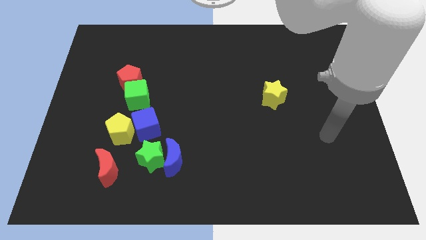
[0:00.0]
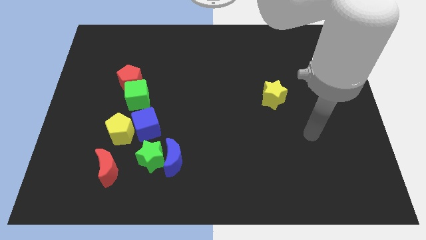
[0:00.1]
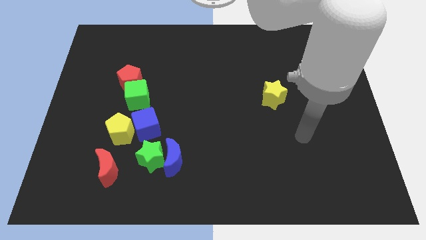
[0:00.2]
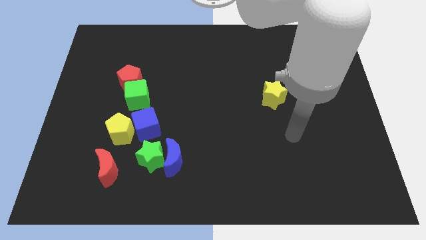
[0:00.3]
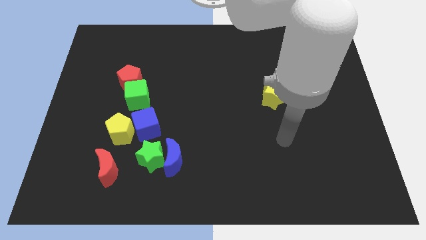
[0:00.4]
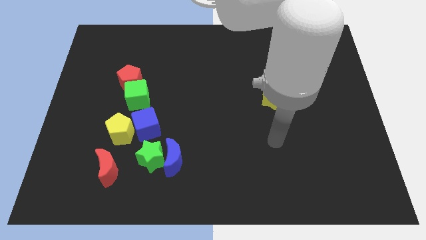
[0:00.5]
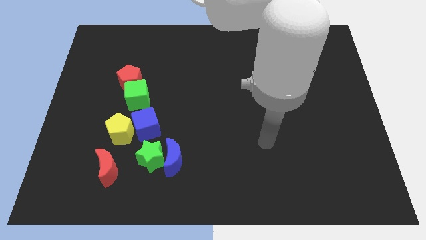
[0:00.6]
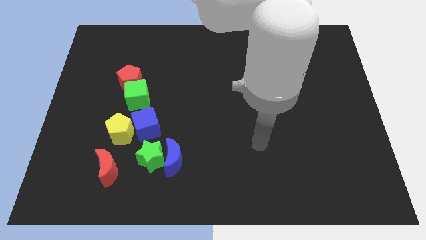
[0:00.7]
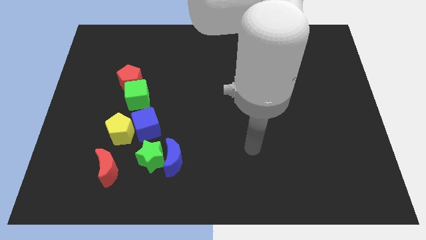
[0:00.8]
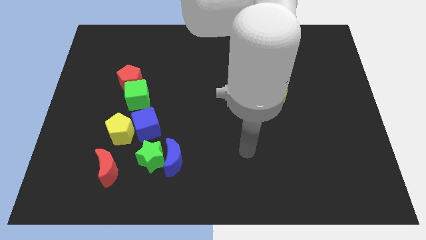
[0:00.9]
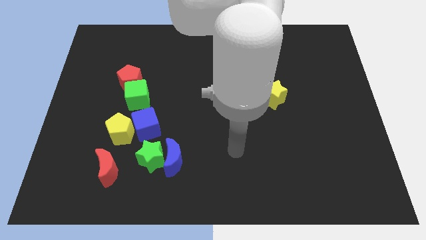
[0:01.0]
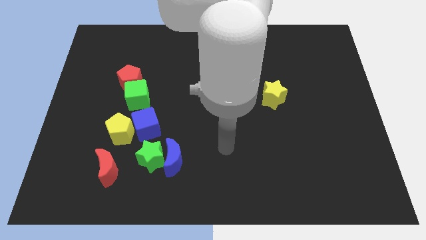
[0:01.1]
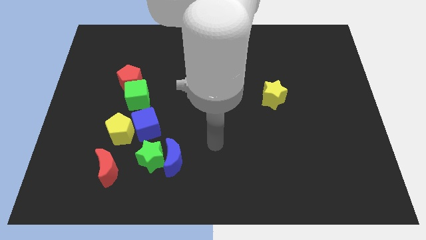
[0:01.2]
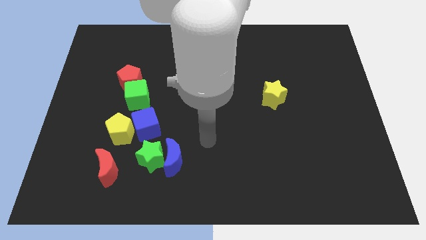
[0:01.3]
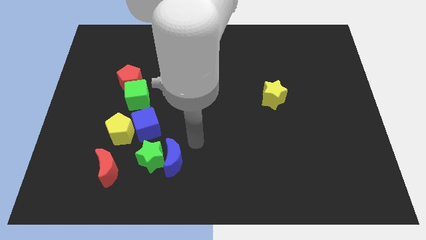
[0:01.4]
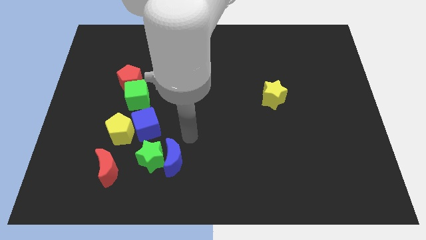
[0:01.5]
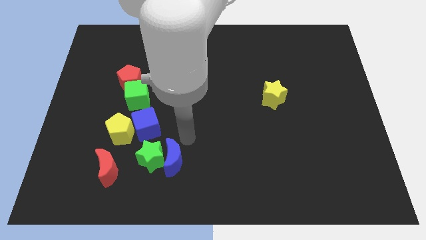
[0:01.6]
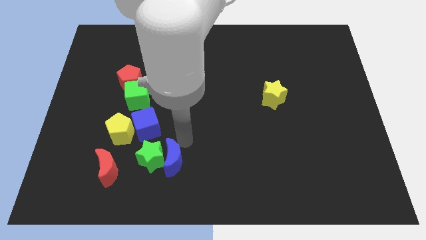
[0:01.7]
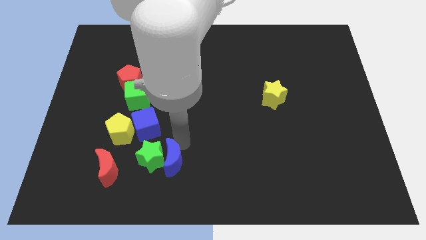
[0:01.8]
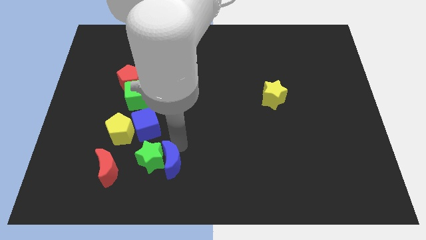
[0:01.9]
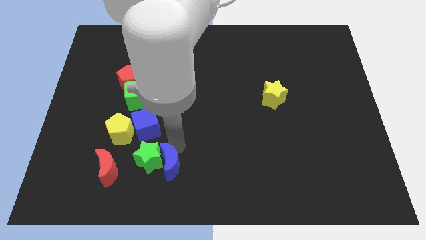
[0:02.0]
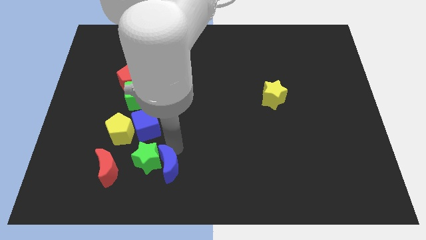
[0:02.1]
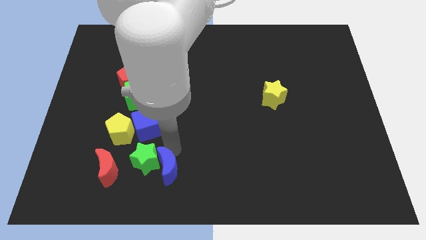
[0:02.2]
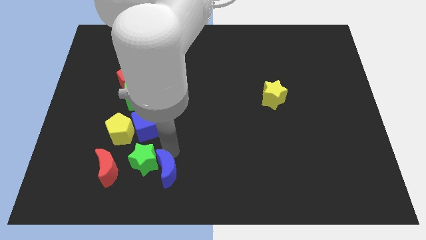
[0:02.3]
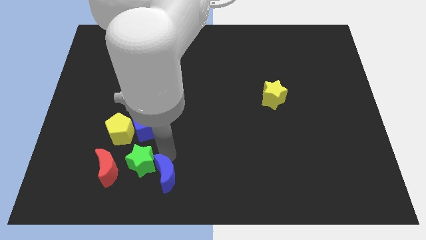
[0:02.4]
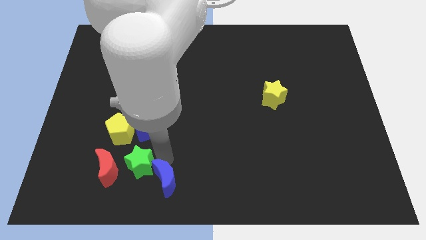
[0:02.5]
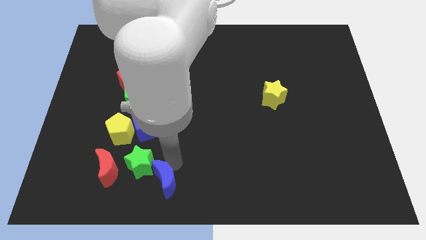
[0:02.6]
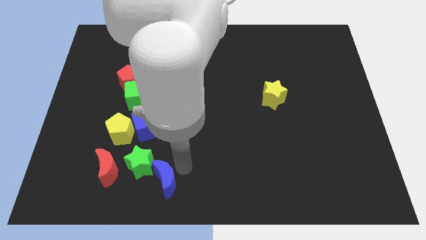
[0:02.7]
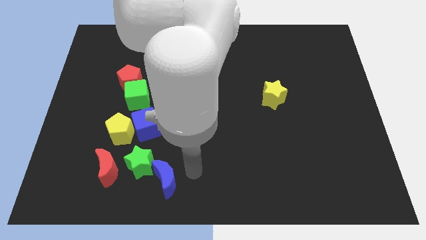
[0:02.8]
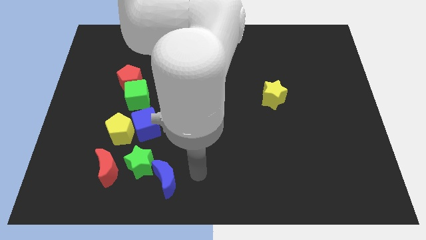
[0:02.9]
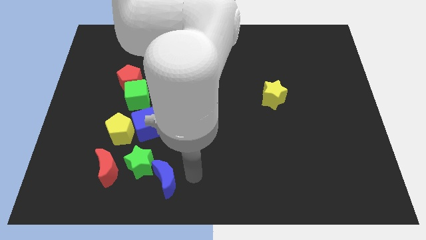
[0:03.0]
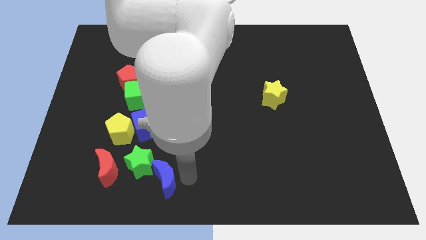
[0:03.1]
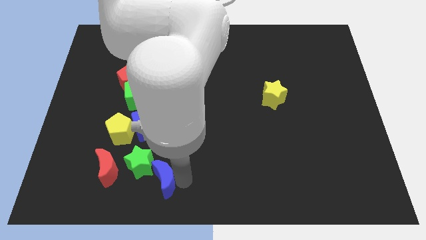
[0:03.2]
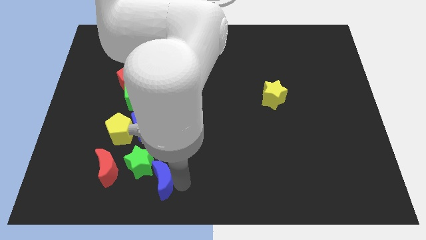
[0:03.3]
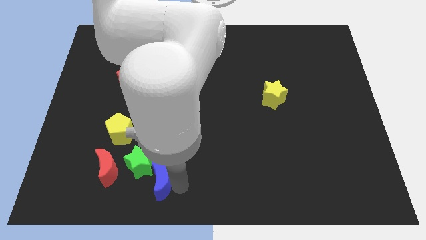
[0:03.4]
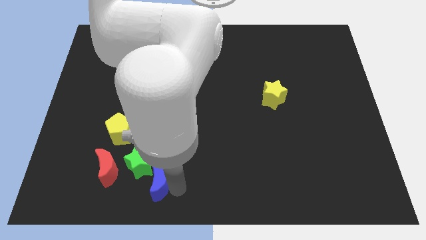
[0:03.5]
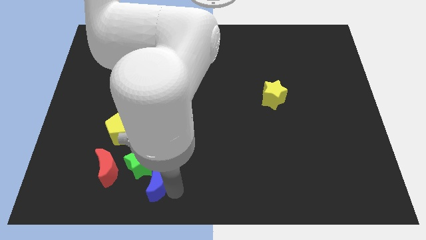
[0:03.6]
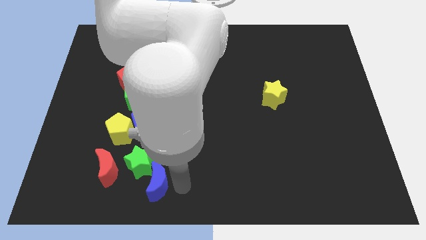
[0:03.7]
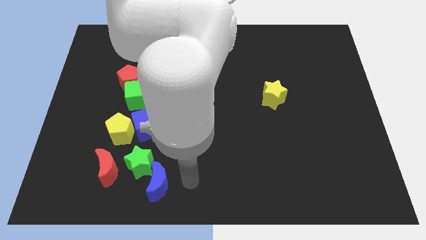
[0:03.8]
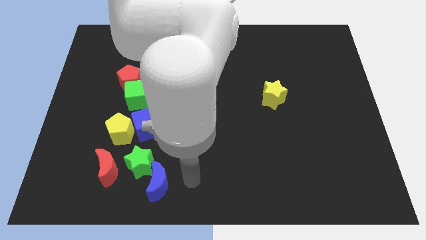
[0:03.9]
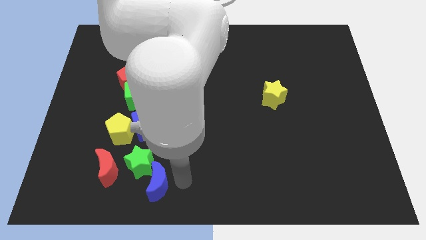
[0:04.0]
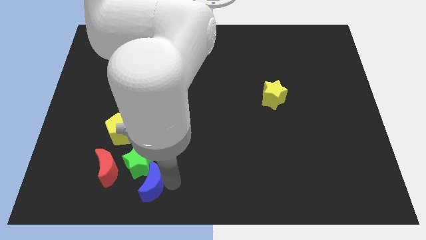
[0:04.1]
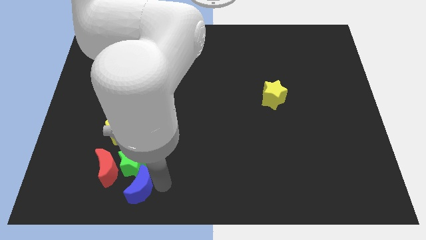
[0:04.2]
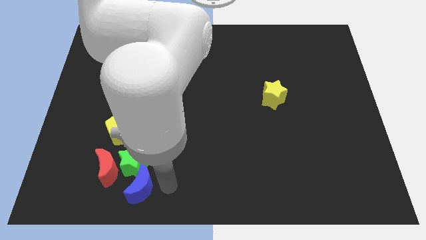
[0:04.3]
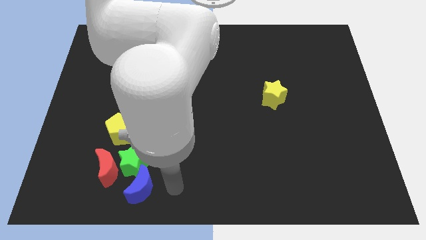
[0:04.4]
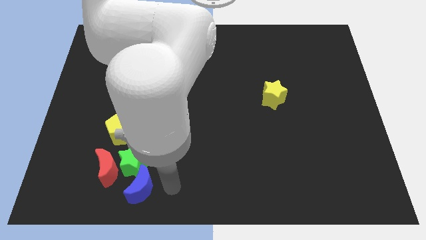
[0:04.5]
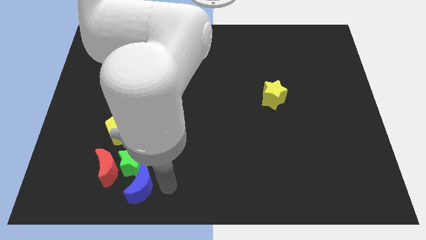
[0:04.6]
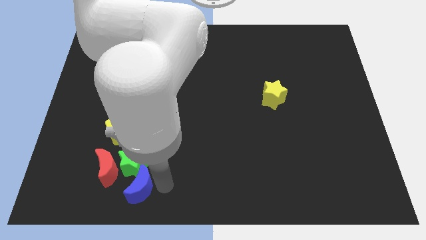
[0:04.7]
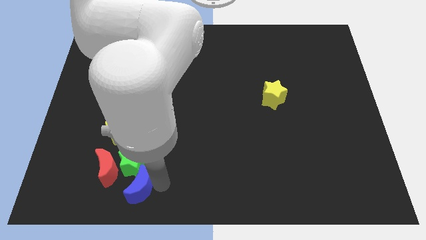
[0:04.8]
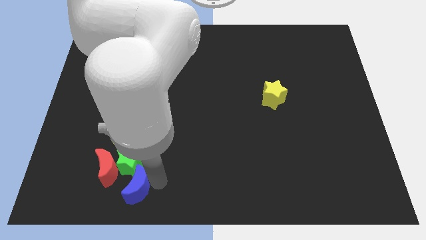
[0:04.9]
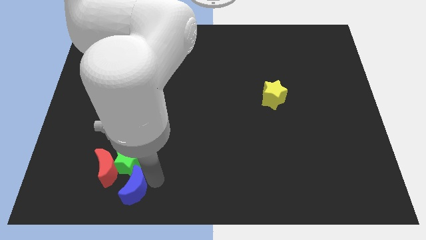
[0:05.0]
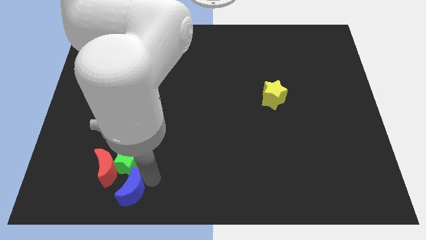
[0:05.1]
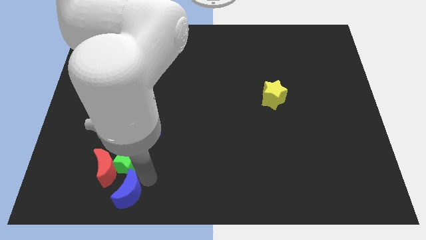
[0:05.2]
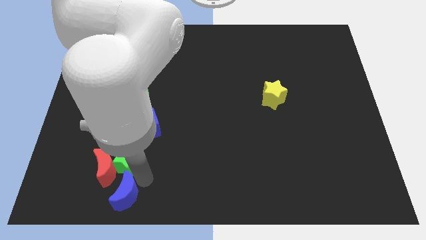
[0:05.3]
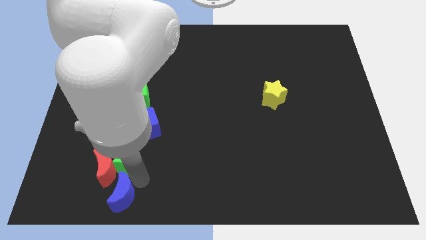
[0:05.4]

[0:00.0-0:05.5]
move the blue moon to the bottom left side of the green star

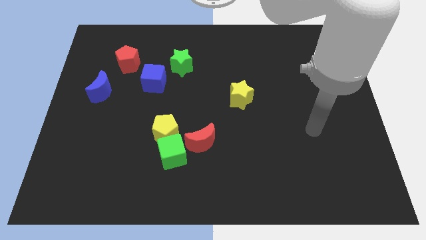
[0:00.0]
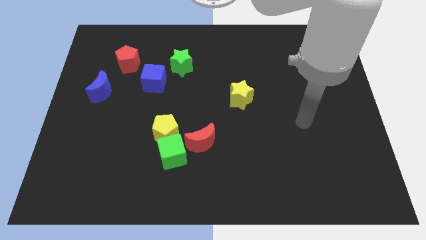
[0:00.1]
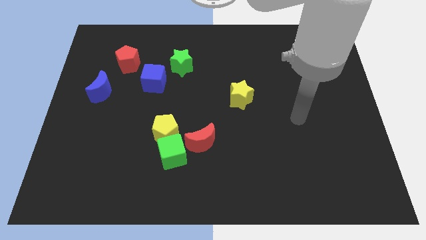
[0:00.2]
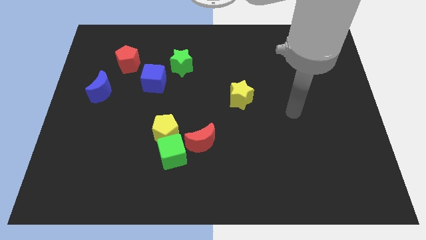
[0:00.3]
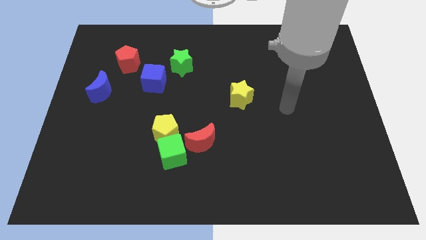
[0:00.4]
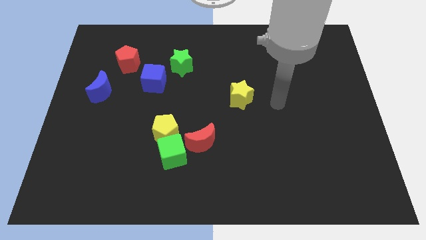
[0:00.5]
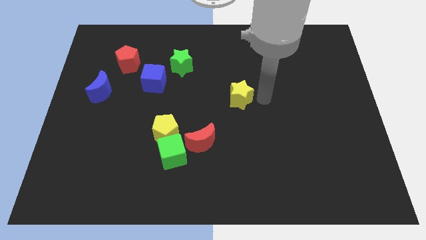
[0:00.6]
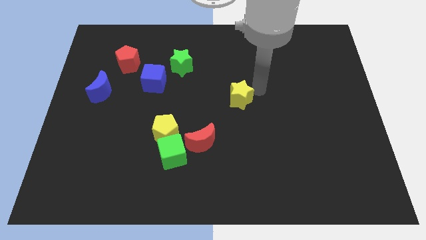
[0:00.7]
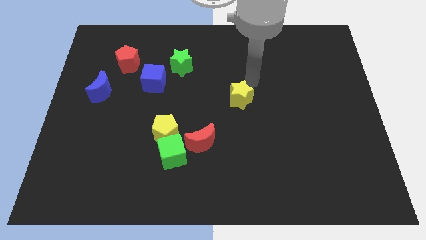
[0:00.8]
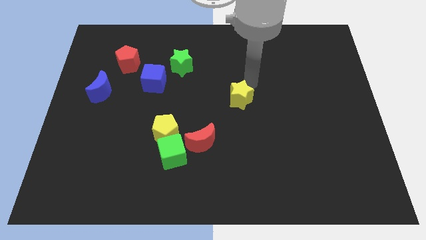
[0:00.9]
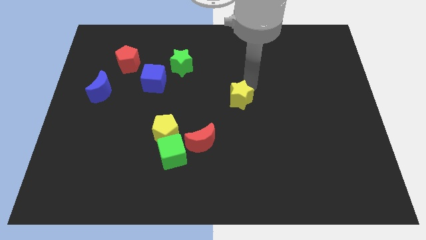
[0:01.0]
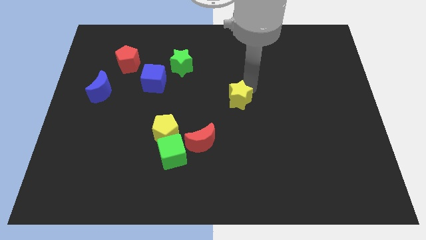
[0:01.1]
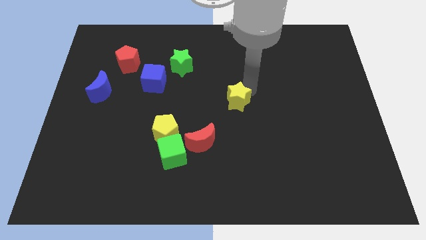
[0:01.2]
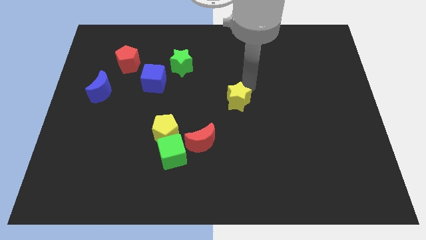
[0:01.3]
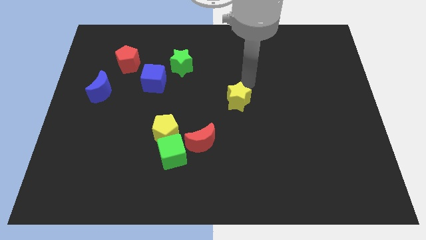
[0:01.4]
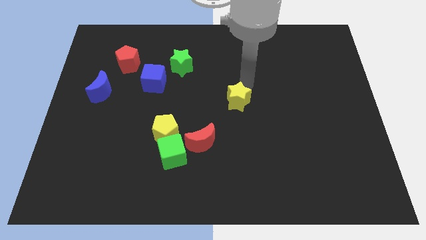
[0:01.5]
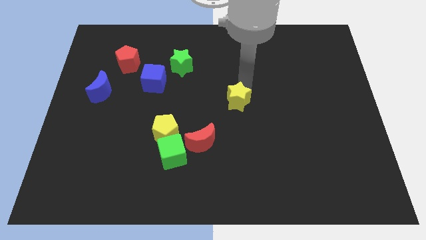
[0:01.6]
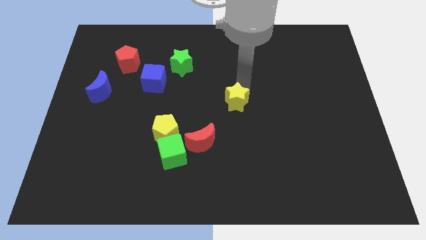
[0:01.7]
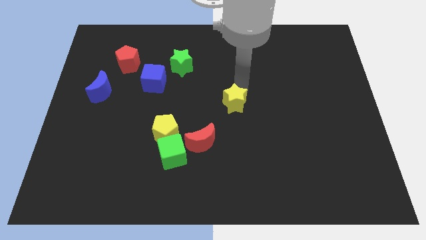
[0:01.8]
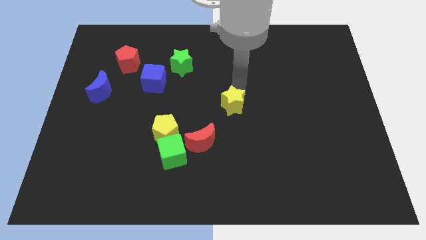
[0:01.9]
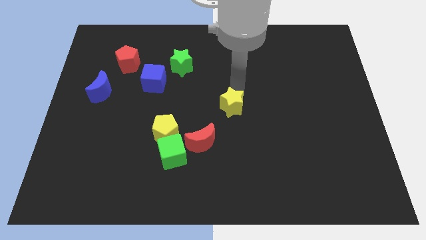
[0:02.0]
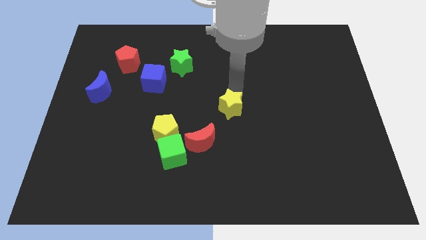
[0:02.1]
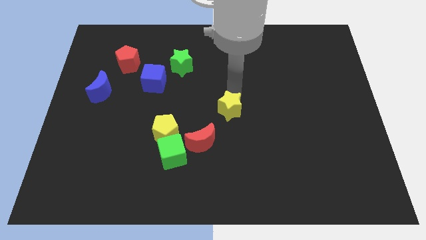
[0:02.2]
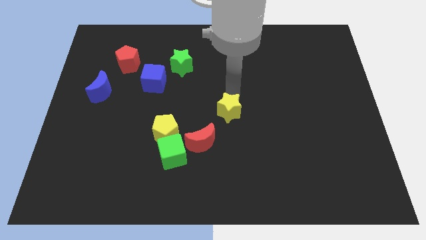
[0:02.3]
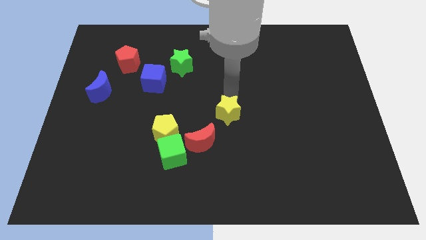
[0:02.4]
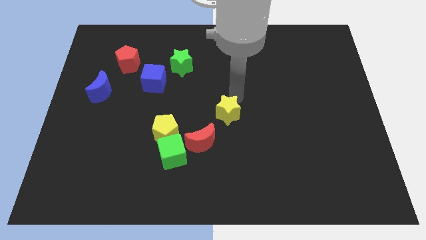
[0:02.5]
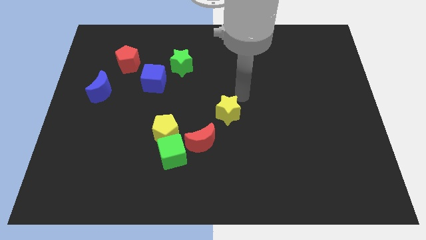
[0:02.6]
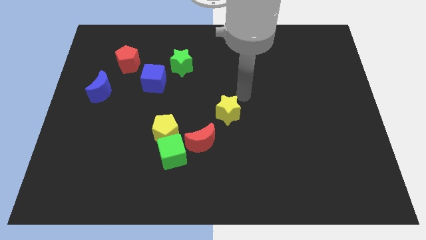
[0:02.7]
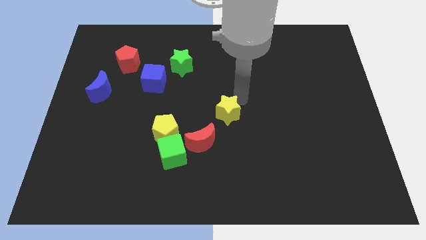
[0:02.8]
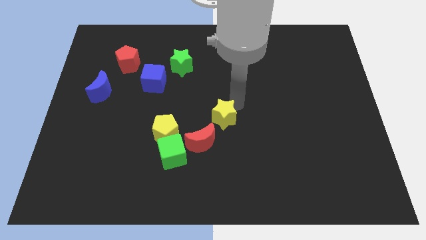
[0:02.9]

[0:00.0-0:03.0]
slide the yellow star right of the yellow pentagon
